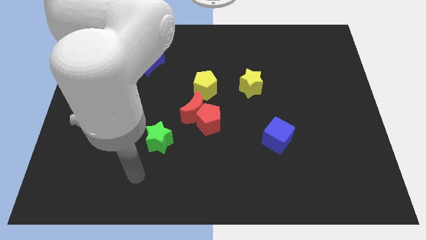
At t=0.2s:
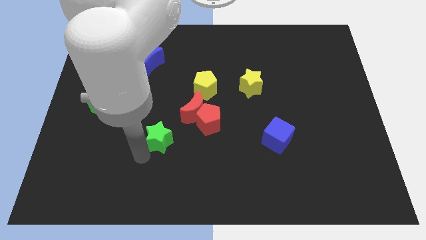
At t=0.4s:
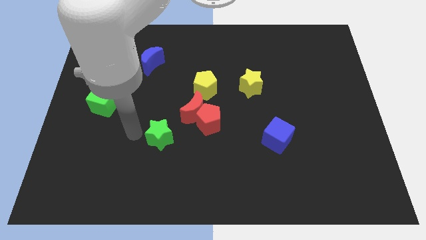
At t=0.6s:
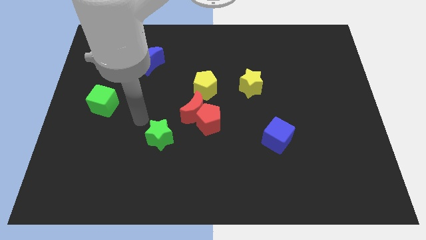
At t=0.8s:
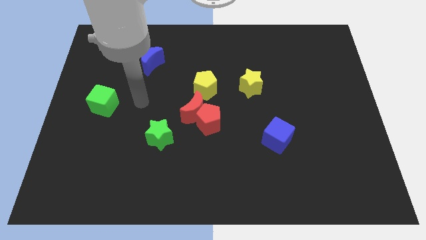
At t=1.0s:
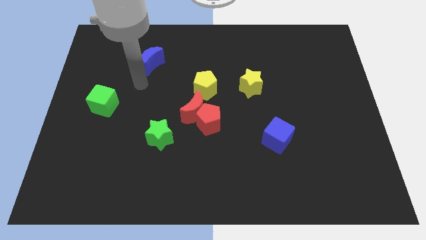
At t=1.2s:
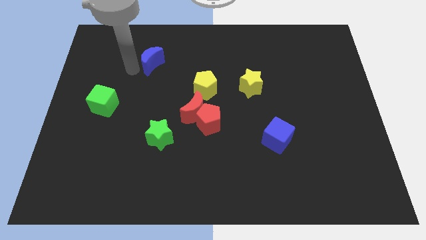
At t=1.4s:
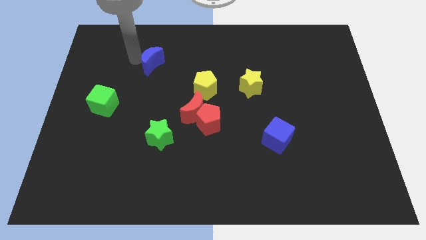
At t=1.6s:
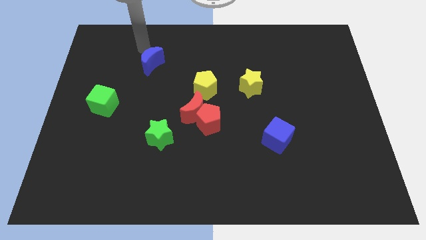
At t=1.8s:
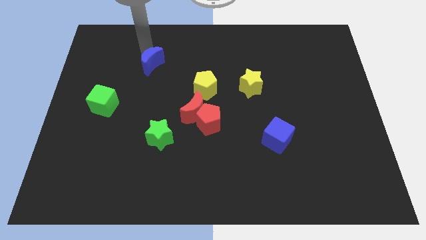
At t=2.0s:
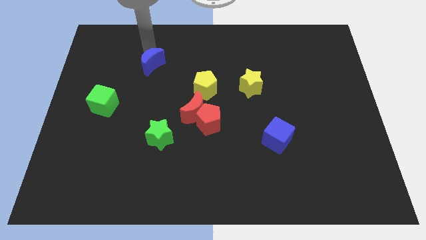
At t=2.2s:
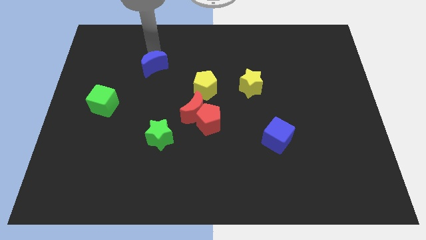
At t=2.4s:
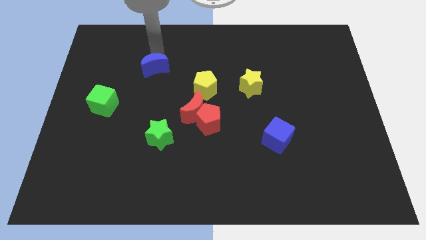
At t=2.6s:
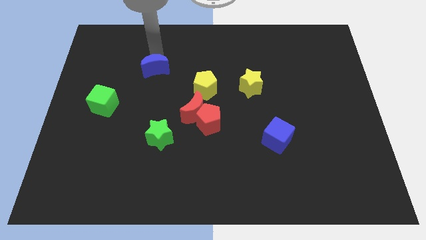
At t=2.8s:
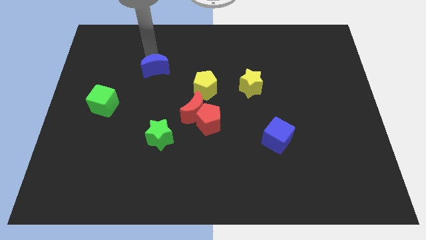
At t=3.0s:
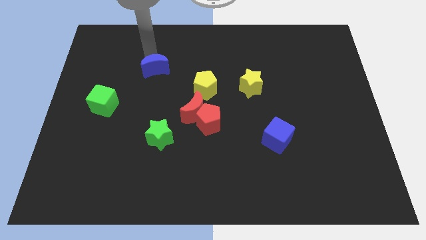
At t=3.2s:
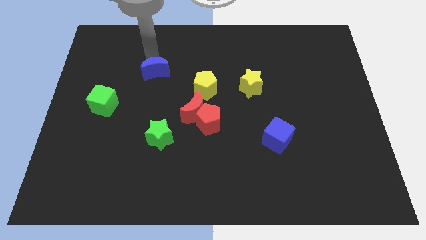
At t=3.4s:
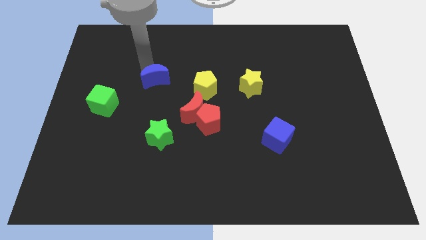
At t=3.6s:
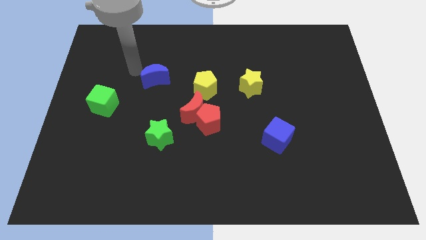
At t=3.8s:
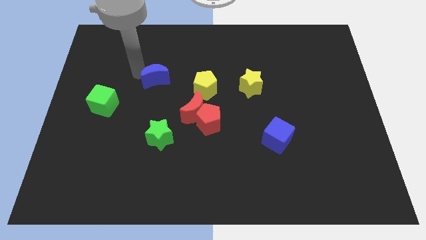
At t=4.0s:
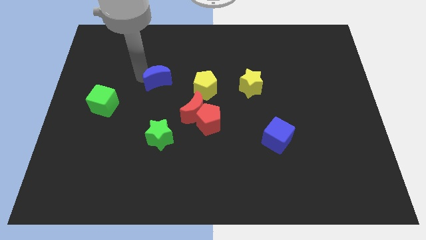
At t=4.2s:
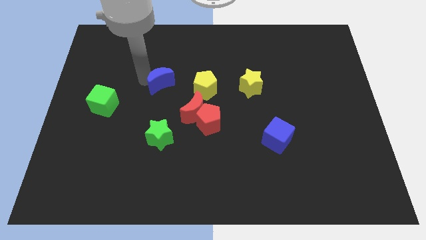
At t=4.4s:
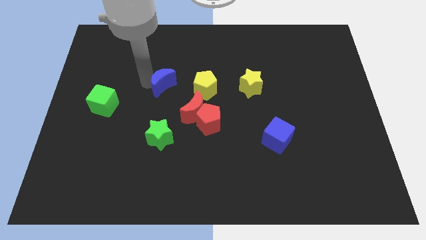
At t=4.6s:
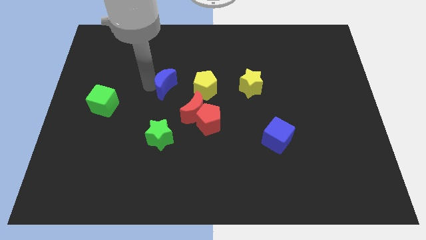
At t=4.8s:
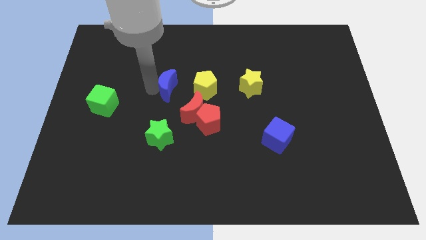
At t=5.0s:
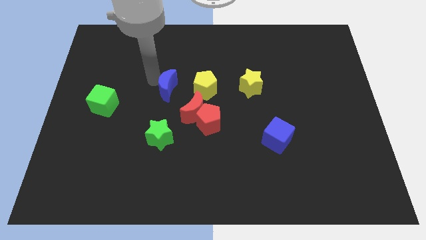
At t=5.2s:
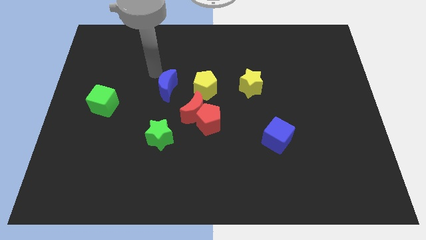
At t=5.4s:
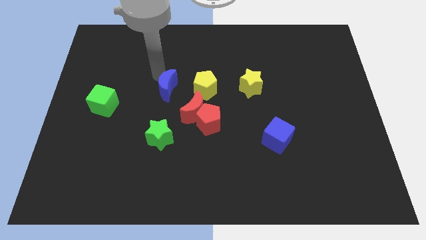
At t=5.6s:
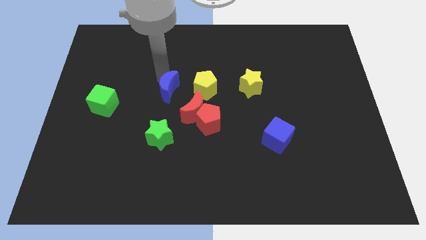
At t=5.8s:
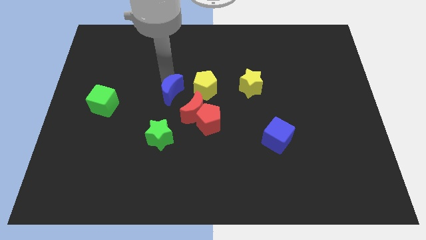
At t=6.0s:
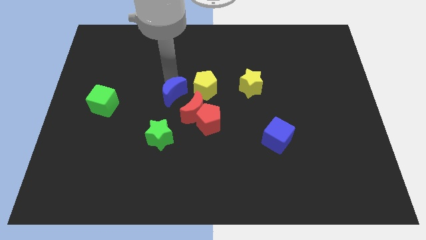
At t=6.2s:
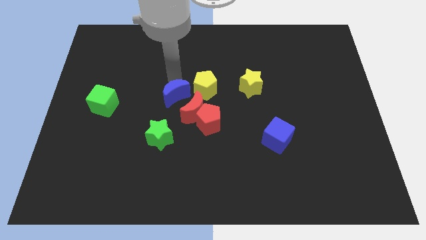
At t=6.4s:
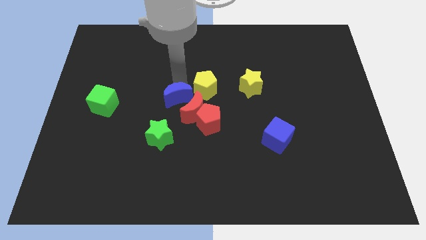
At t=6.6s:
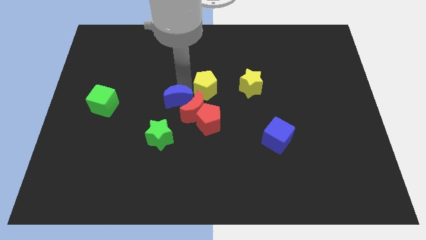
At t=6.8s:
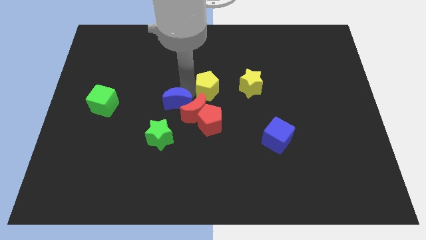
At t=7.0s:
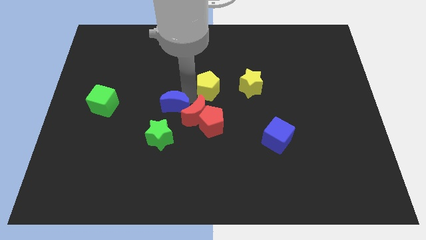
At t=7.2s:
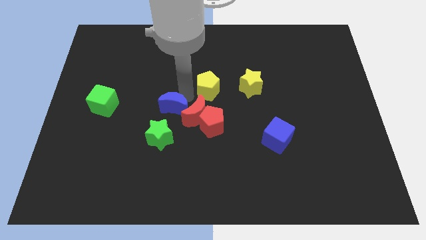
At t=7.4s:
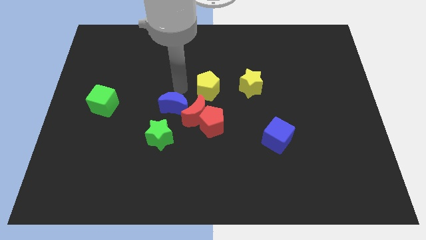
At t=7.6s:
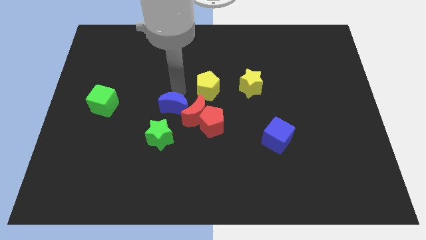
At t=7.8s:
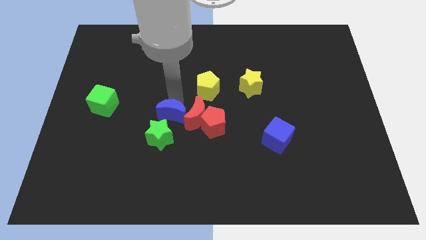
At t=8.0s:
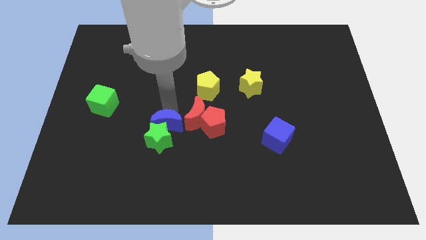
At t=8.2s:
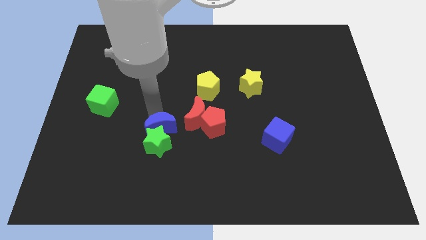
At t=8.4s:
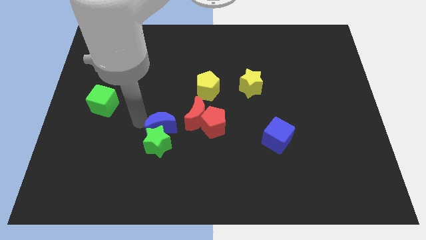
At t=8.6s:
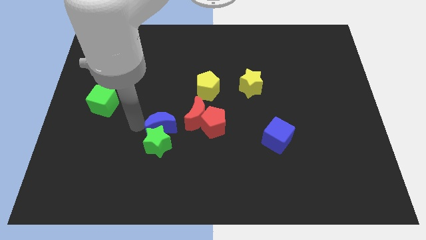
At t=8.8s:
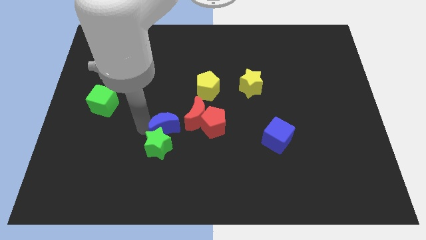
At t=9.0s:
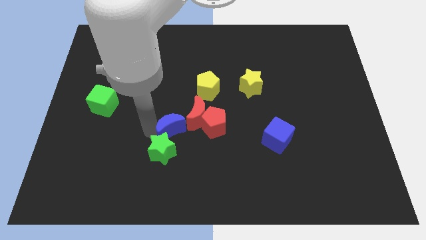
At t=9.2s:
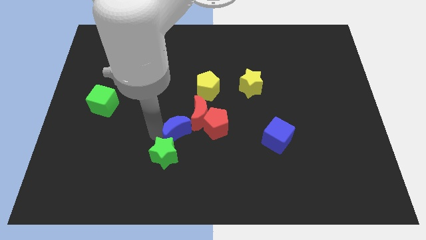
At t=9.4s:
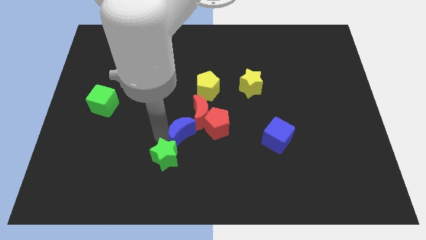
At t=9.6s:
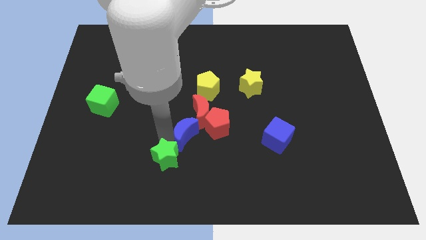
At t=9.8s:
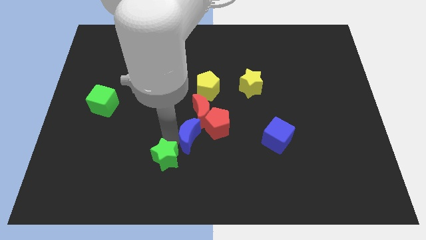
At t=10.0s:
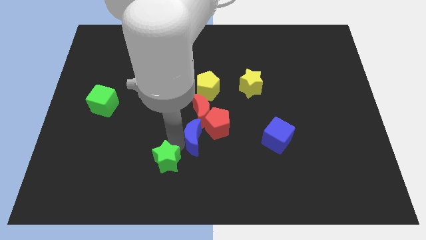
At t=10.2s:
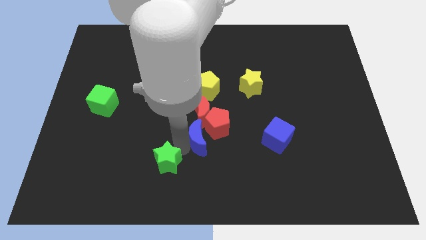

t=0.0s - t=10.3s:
put the blue moon next to the red pentagon

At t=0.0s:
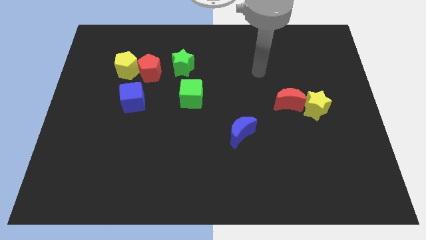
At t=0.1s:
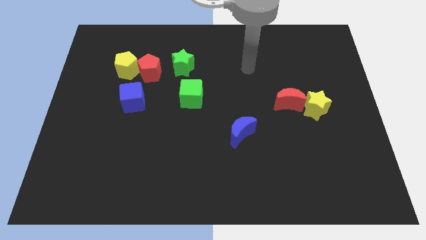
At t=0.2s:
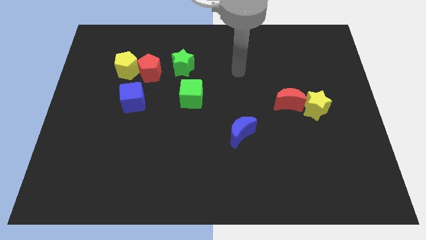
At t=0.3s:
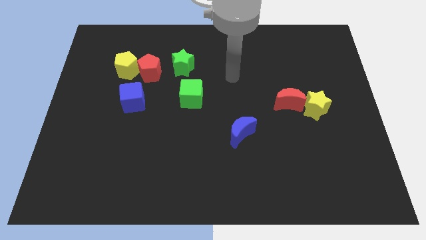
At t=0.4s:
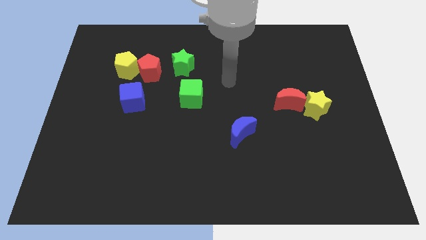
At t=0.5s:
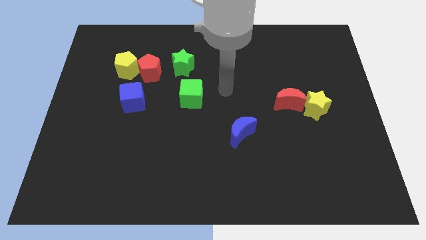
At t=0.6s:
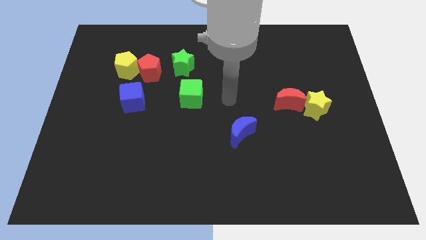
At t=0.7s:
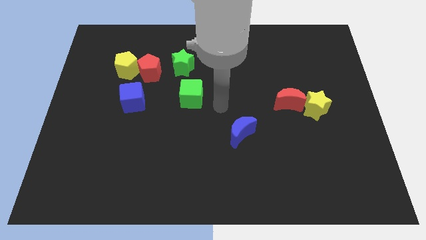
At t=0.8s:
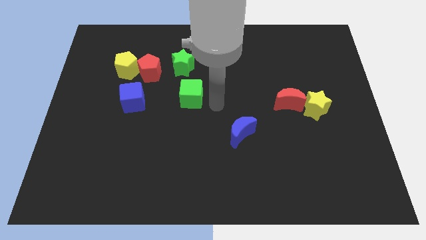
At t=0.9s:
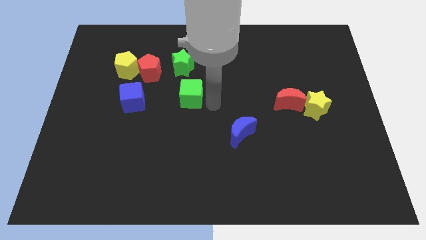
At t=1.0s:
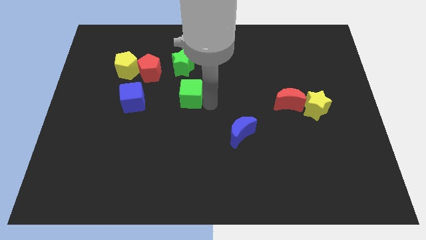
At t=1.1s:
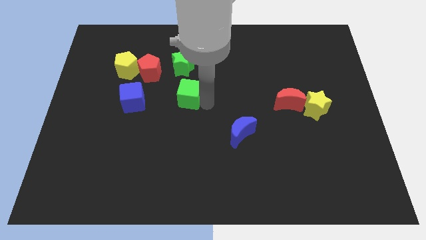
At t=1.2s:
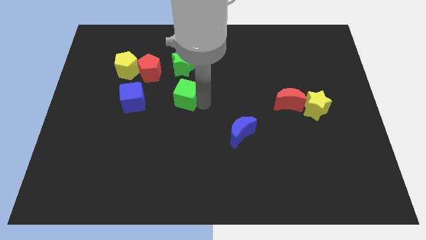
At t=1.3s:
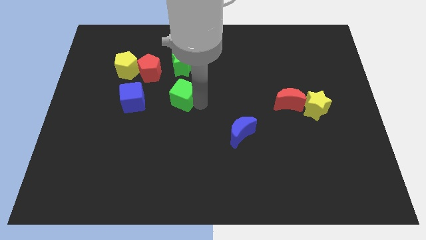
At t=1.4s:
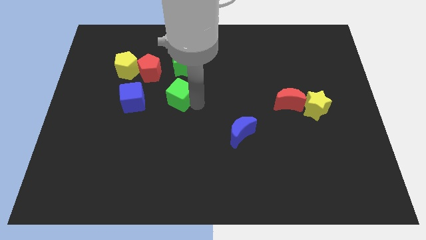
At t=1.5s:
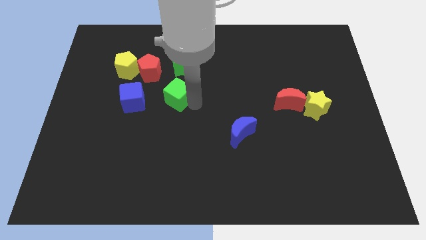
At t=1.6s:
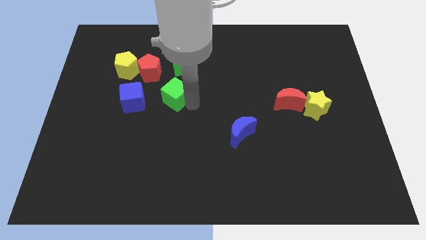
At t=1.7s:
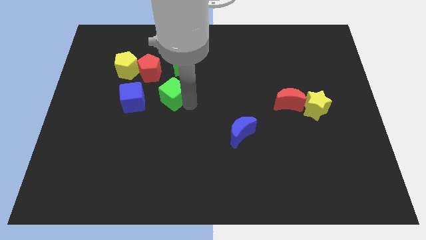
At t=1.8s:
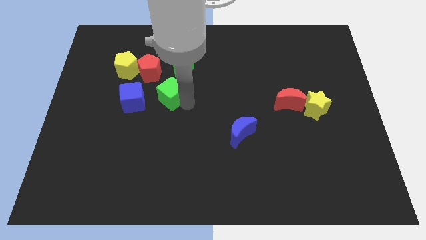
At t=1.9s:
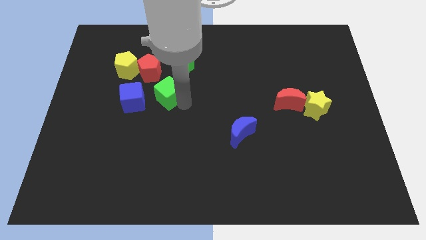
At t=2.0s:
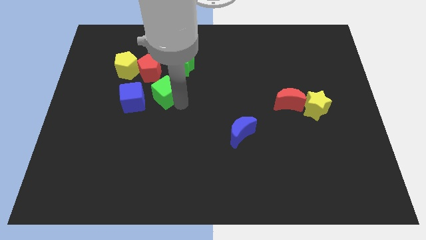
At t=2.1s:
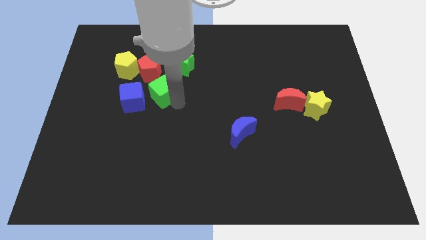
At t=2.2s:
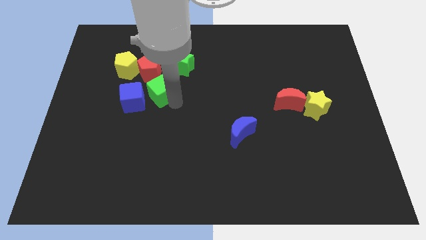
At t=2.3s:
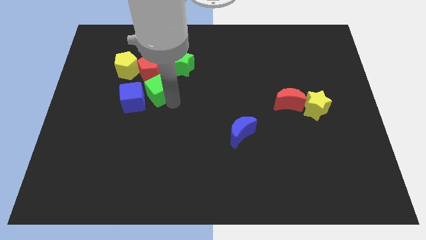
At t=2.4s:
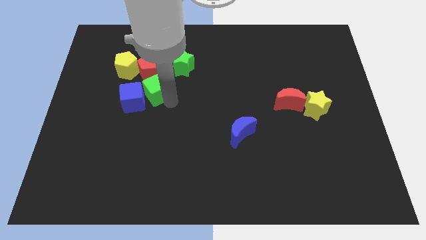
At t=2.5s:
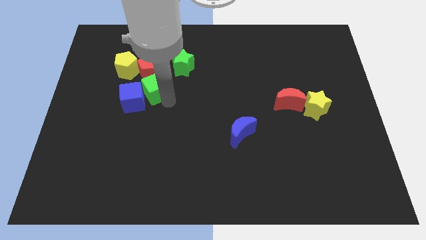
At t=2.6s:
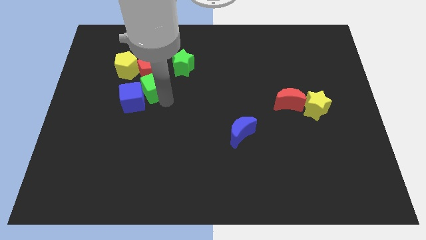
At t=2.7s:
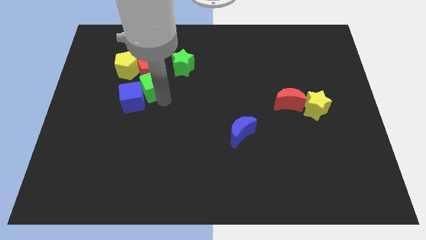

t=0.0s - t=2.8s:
put the green cube close to the red pentagon
